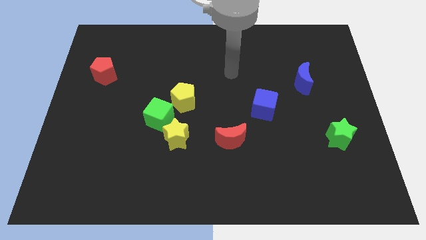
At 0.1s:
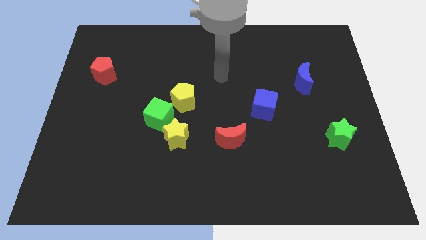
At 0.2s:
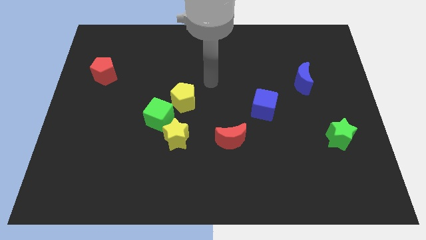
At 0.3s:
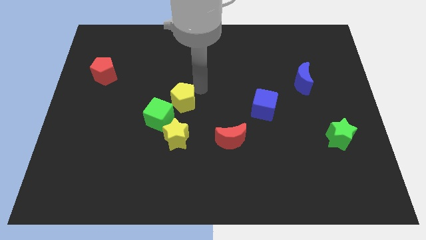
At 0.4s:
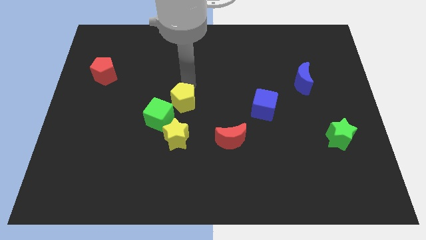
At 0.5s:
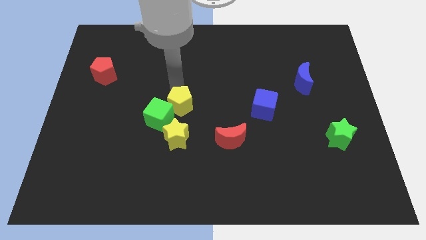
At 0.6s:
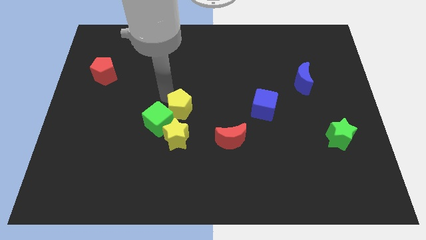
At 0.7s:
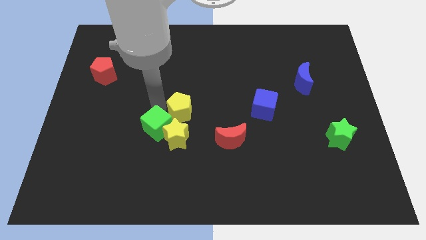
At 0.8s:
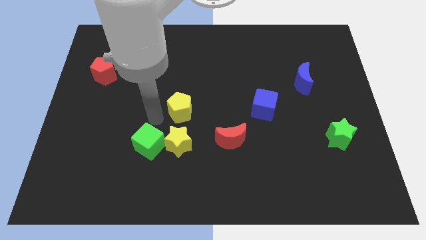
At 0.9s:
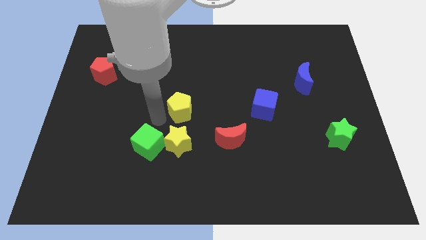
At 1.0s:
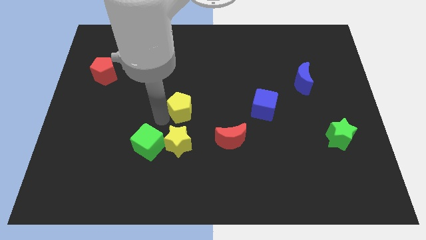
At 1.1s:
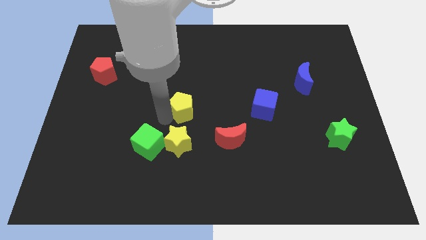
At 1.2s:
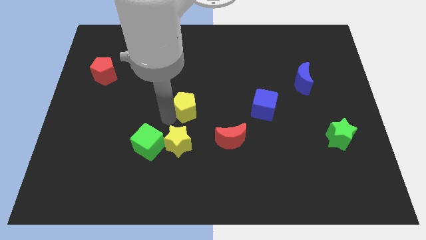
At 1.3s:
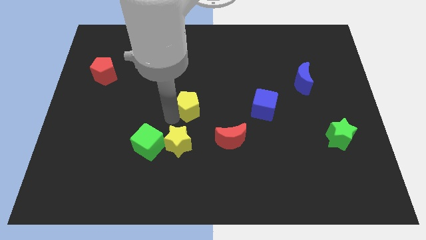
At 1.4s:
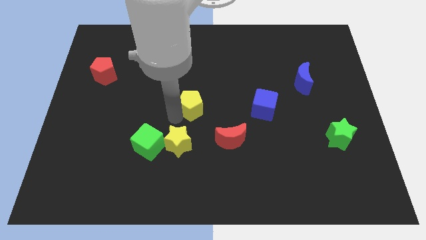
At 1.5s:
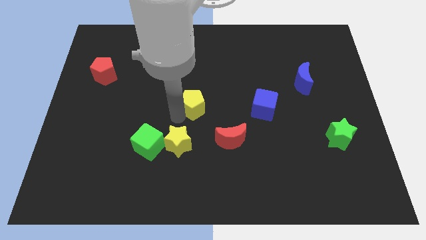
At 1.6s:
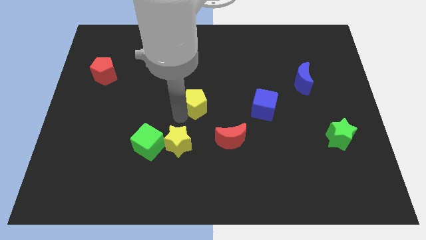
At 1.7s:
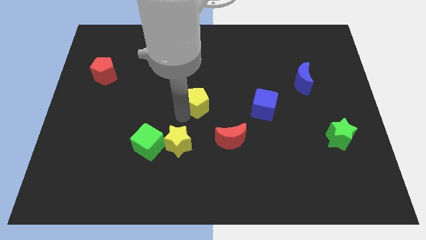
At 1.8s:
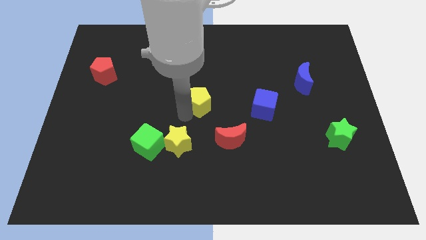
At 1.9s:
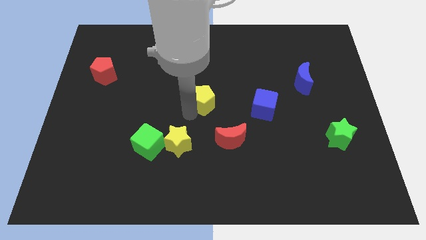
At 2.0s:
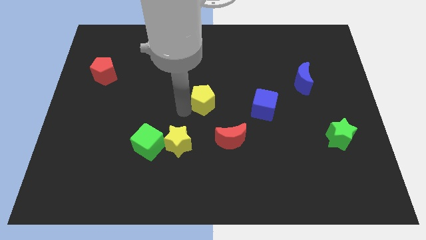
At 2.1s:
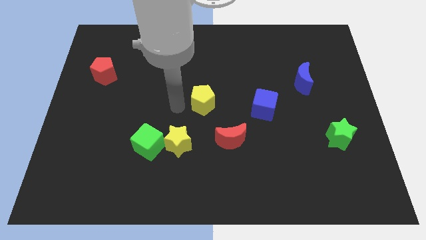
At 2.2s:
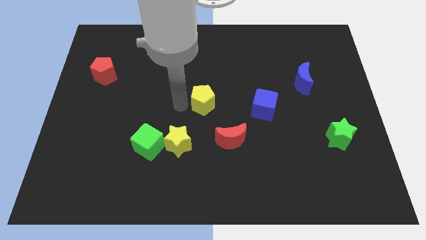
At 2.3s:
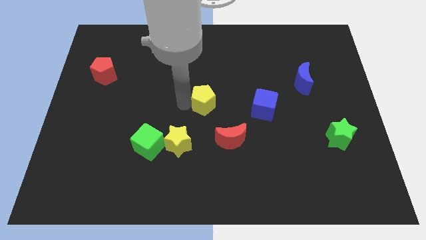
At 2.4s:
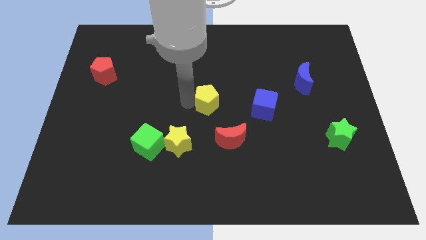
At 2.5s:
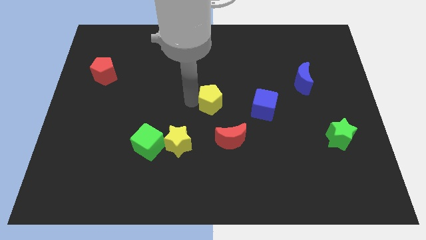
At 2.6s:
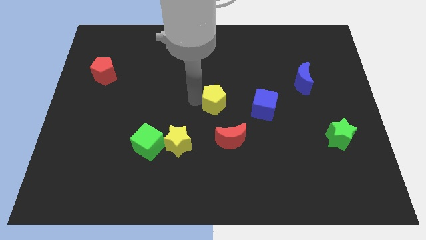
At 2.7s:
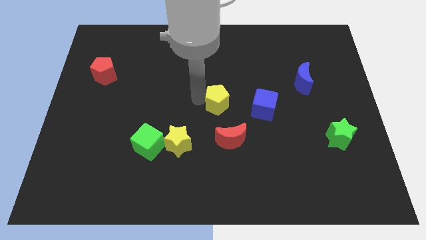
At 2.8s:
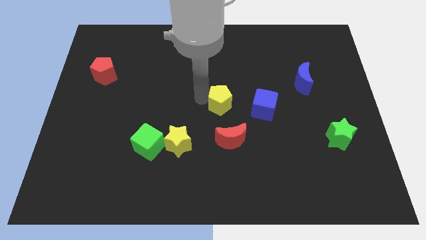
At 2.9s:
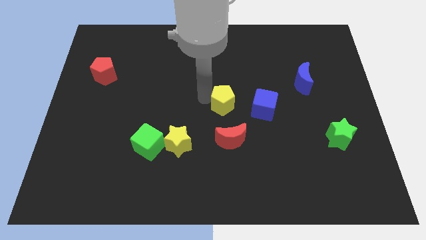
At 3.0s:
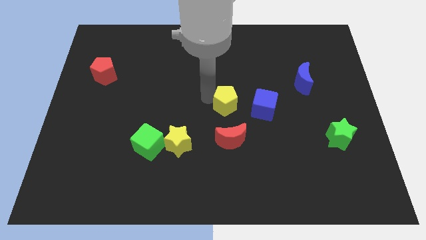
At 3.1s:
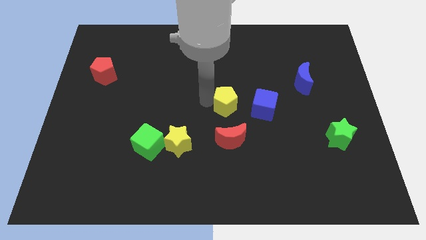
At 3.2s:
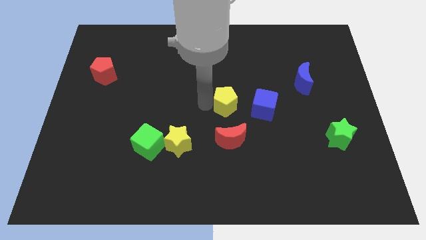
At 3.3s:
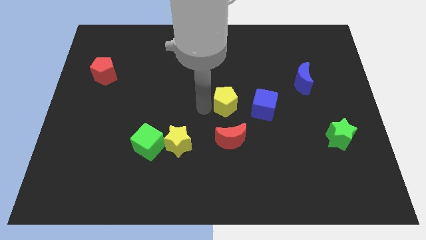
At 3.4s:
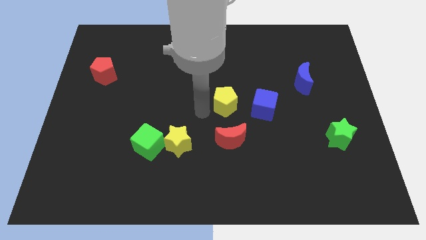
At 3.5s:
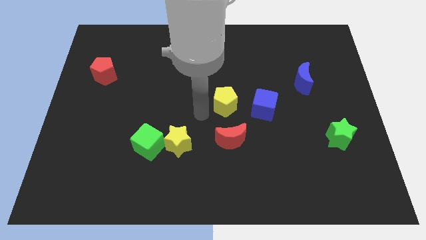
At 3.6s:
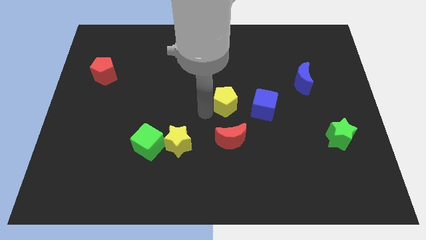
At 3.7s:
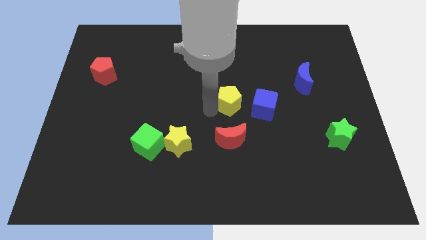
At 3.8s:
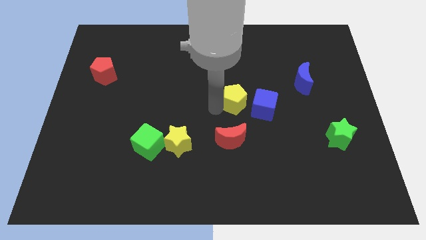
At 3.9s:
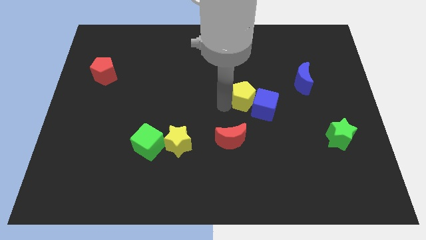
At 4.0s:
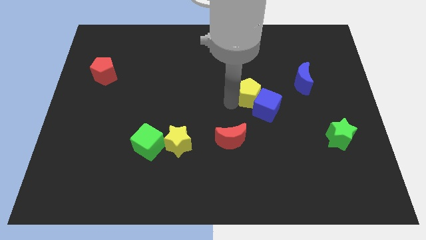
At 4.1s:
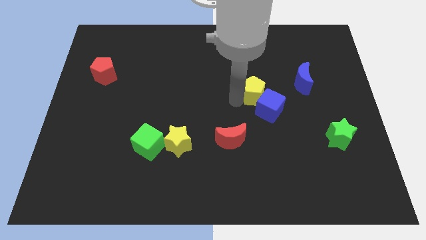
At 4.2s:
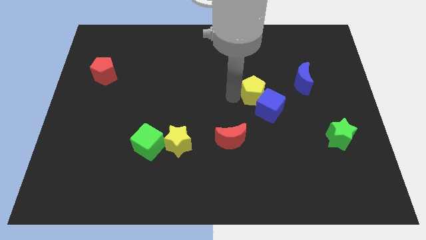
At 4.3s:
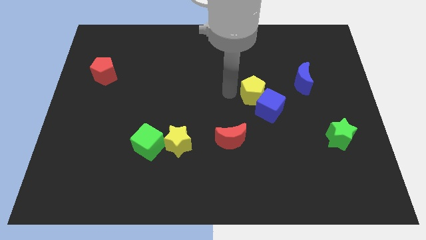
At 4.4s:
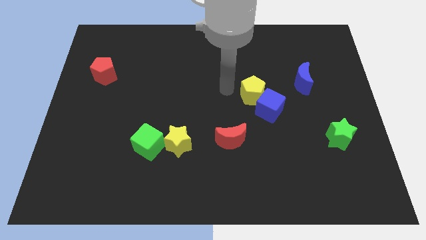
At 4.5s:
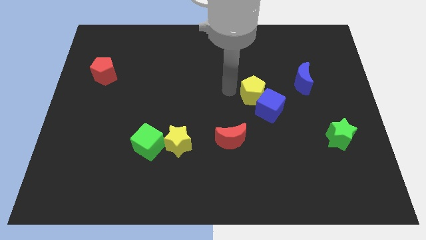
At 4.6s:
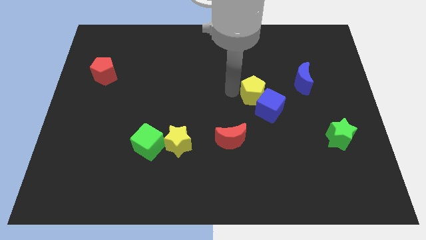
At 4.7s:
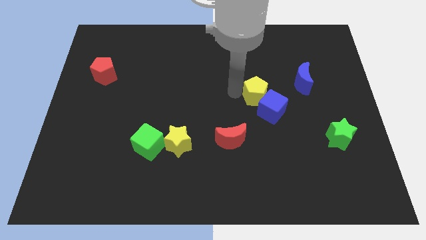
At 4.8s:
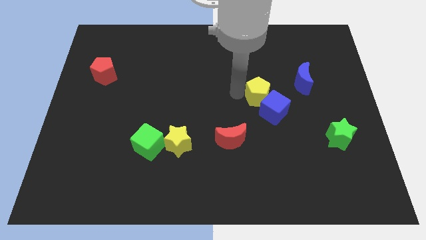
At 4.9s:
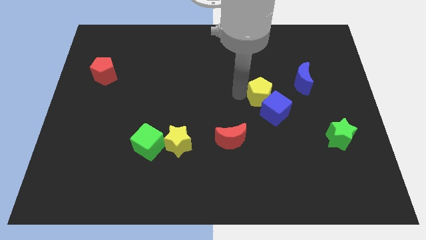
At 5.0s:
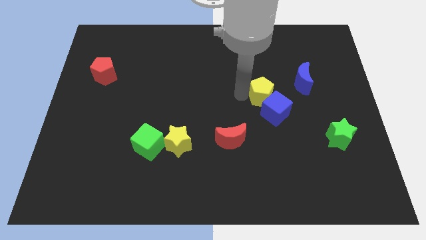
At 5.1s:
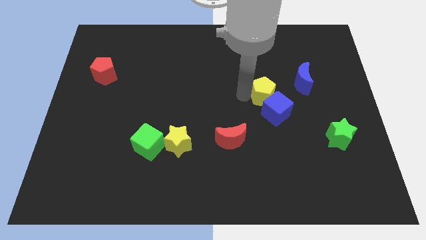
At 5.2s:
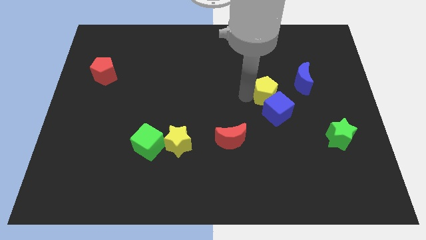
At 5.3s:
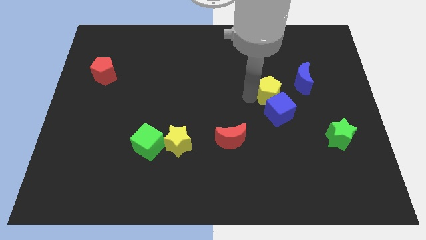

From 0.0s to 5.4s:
move the yellow pentagon to the right

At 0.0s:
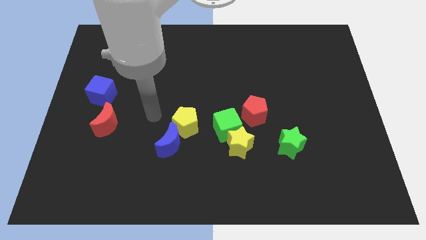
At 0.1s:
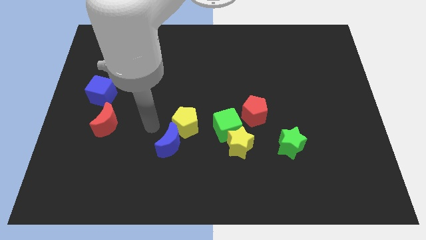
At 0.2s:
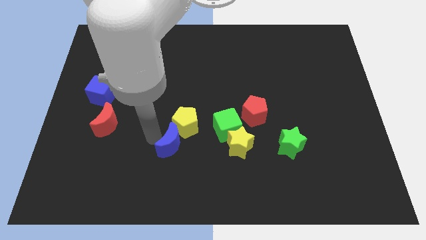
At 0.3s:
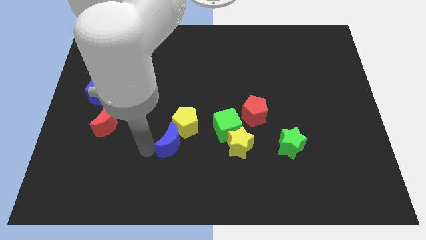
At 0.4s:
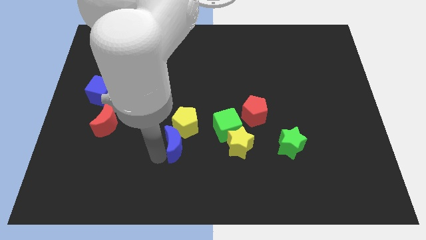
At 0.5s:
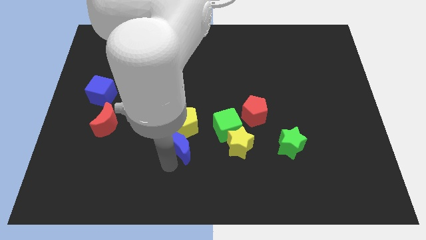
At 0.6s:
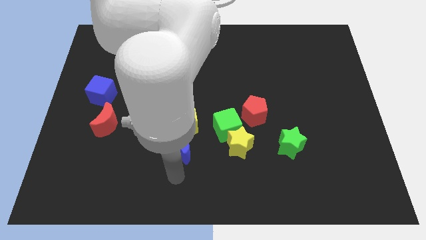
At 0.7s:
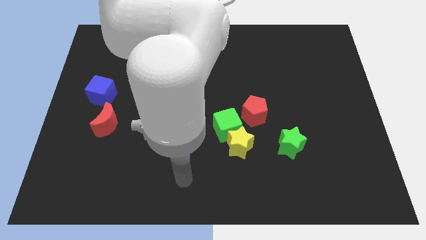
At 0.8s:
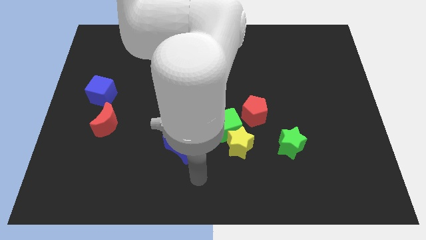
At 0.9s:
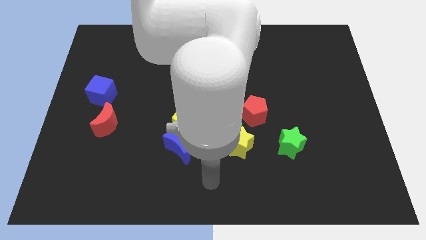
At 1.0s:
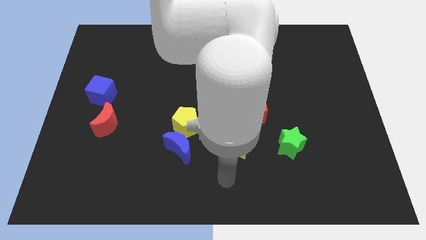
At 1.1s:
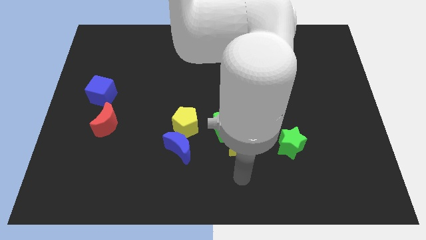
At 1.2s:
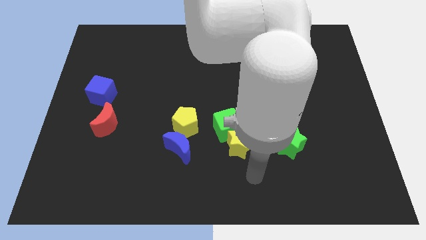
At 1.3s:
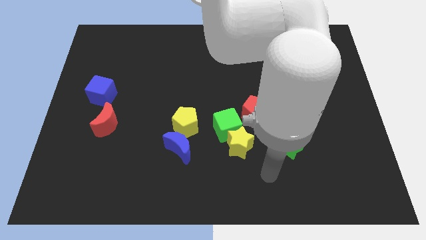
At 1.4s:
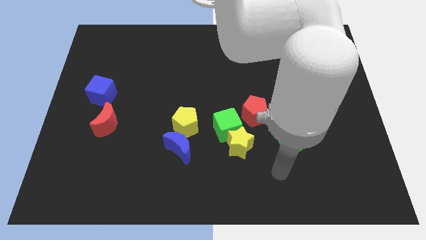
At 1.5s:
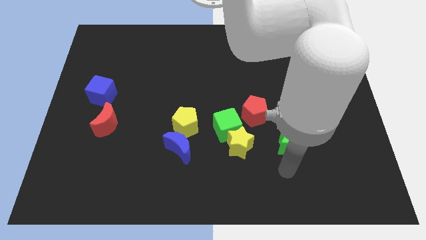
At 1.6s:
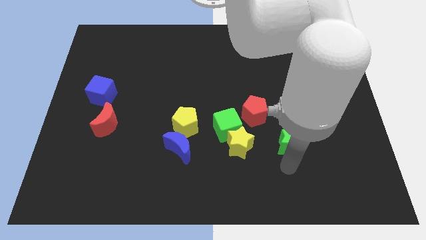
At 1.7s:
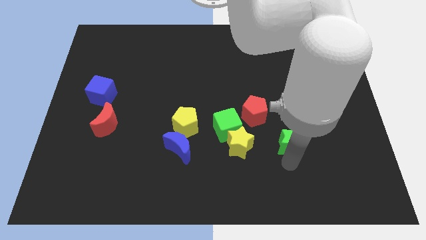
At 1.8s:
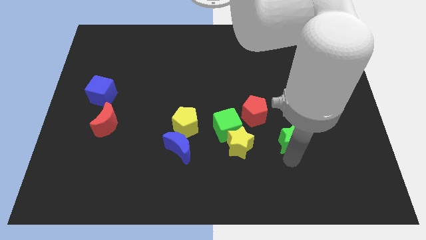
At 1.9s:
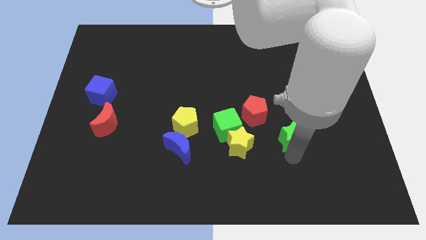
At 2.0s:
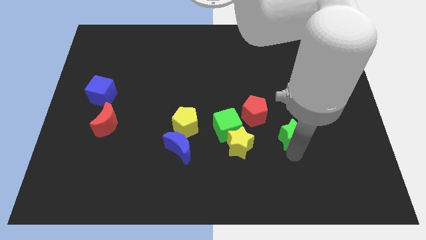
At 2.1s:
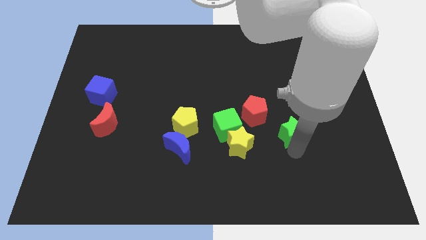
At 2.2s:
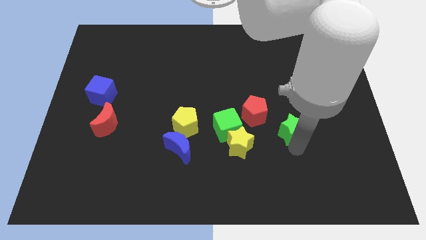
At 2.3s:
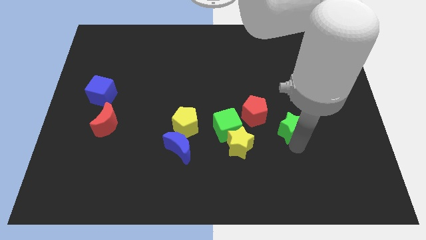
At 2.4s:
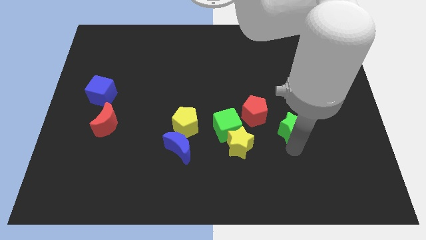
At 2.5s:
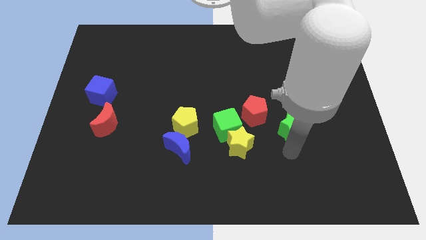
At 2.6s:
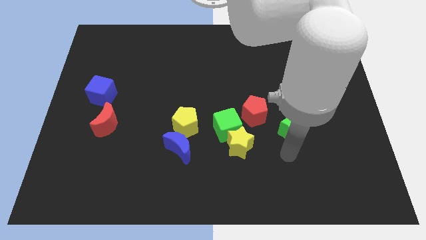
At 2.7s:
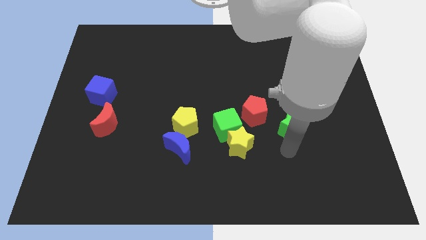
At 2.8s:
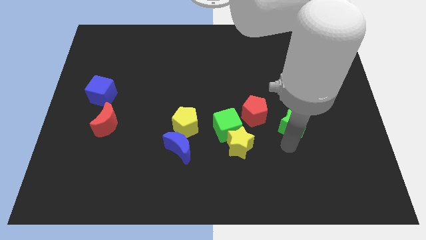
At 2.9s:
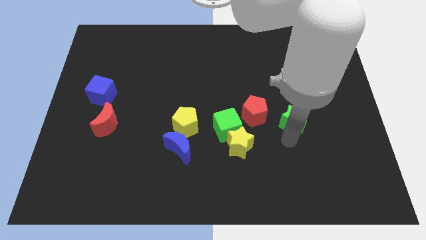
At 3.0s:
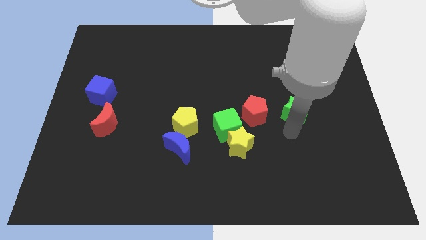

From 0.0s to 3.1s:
push the green star somewhat up
